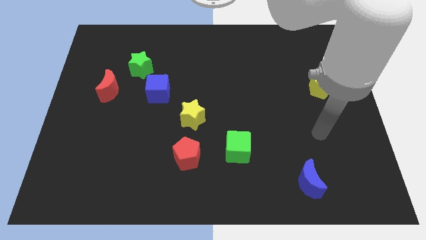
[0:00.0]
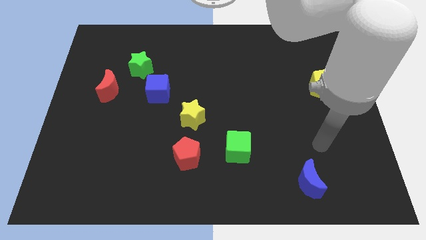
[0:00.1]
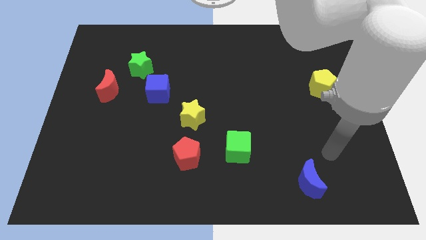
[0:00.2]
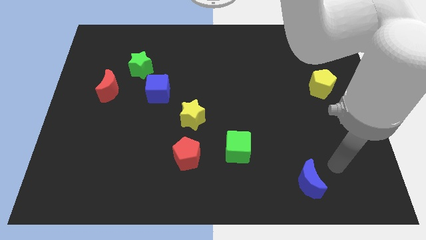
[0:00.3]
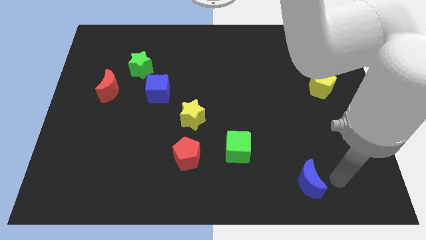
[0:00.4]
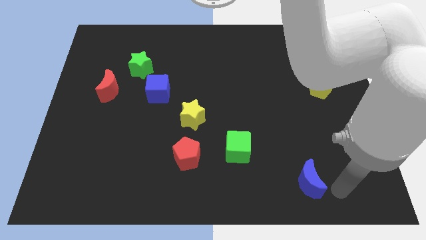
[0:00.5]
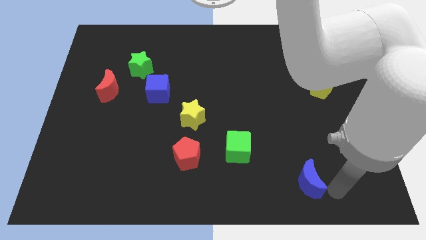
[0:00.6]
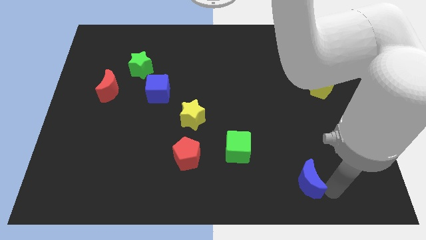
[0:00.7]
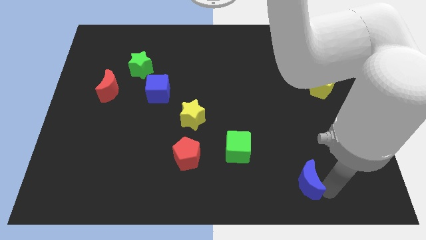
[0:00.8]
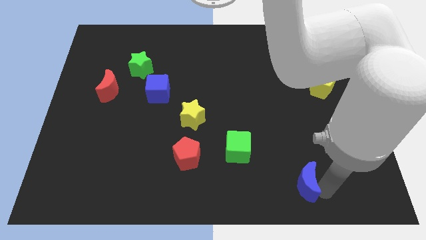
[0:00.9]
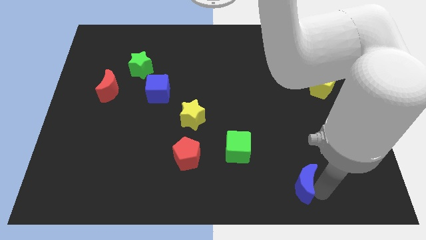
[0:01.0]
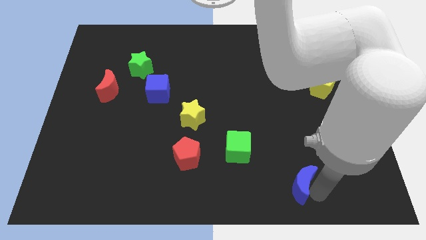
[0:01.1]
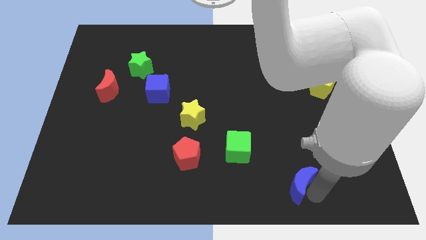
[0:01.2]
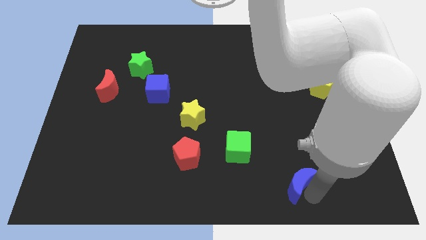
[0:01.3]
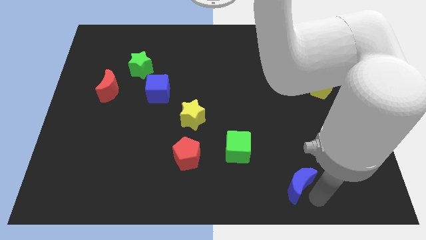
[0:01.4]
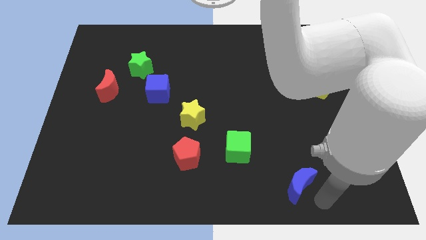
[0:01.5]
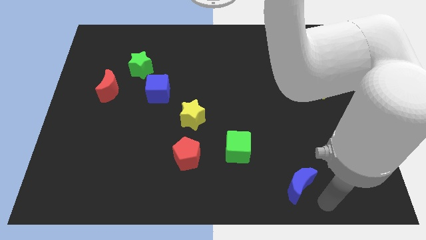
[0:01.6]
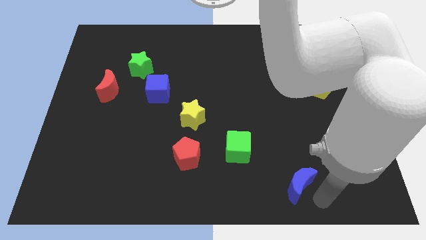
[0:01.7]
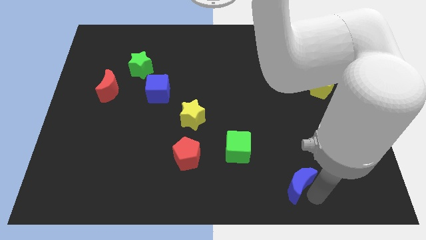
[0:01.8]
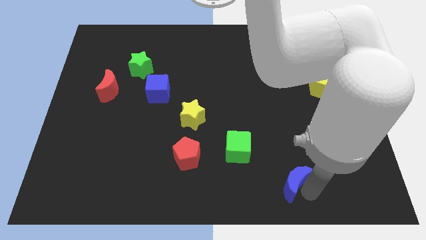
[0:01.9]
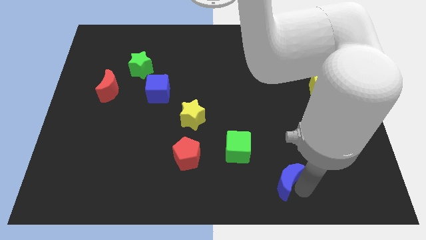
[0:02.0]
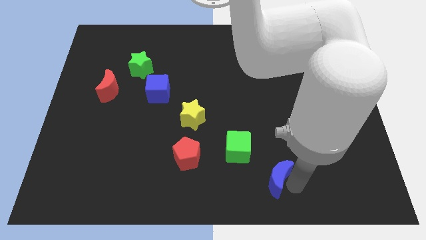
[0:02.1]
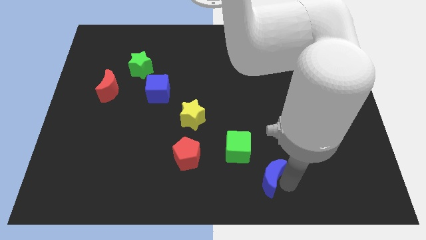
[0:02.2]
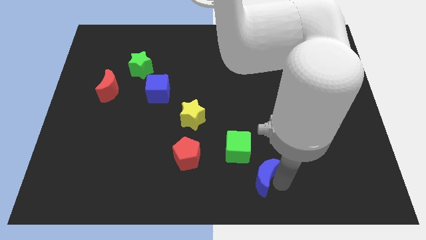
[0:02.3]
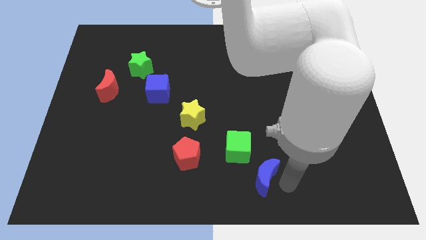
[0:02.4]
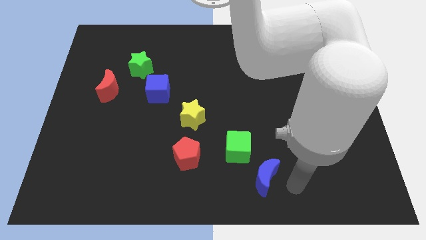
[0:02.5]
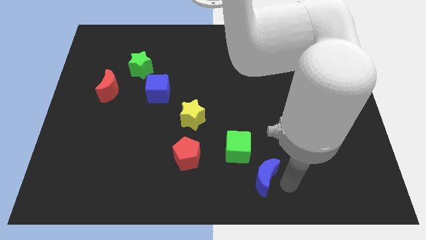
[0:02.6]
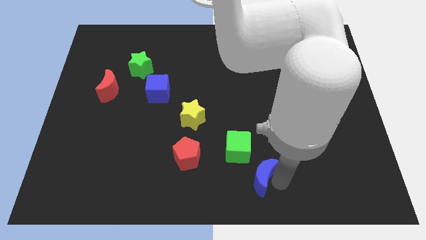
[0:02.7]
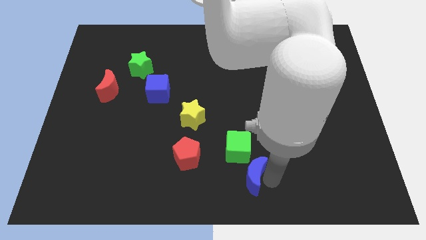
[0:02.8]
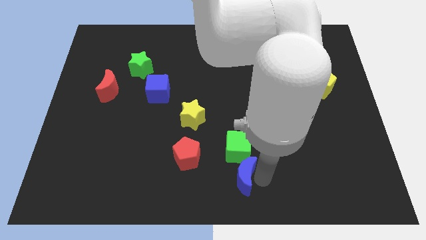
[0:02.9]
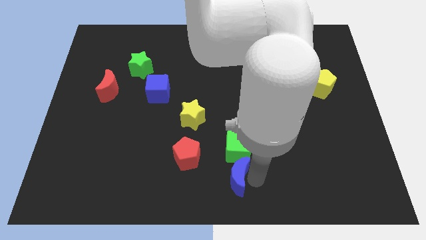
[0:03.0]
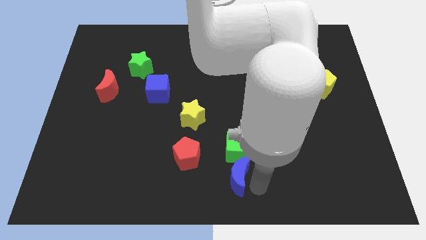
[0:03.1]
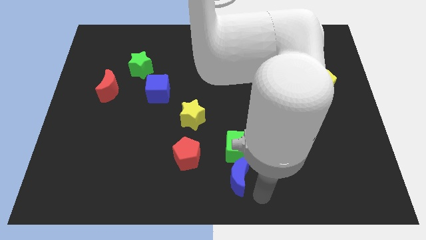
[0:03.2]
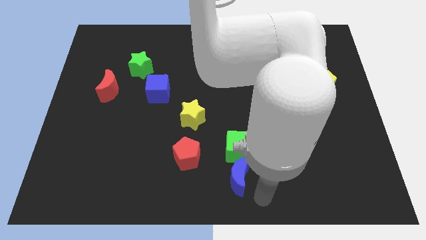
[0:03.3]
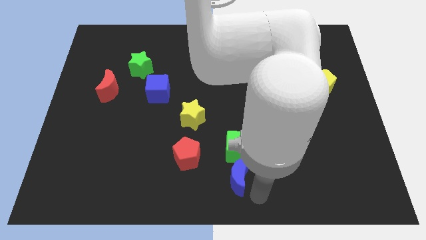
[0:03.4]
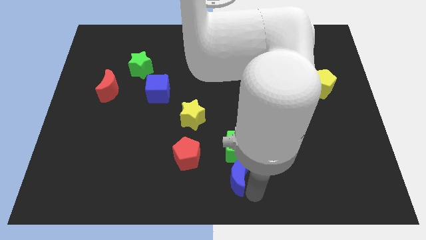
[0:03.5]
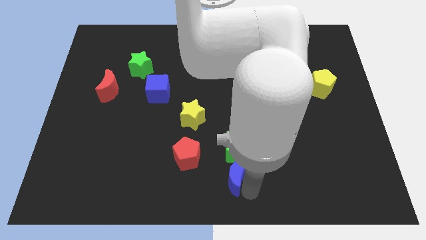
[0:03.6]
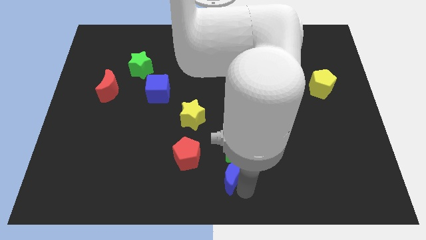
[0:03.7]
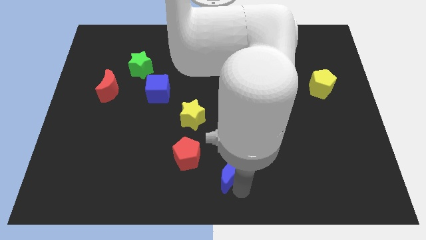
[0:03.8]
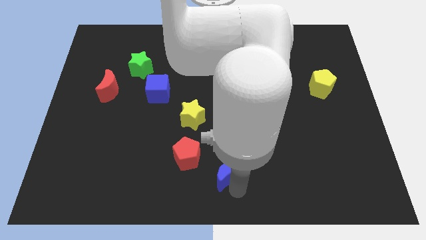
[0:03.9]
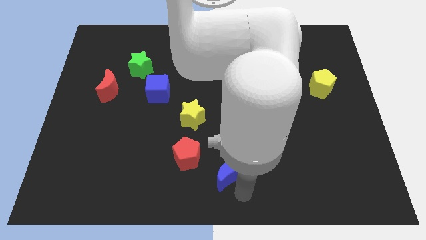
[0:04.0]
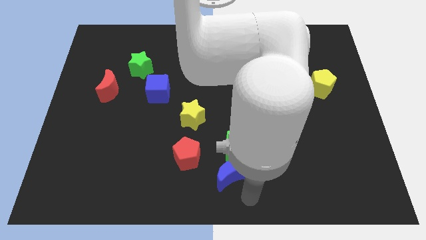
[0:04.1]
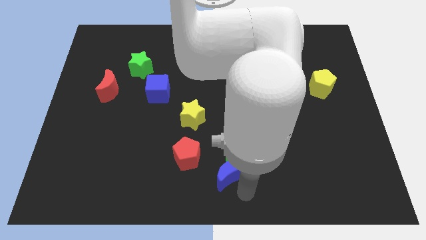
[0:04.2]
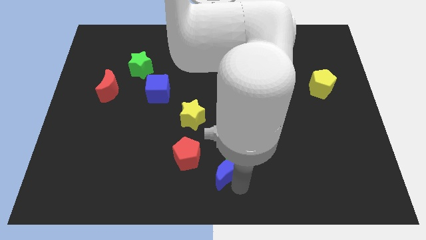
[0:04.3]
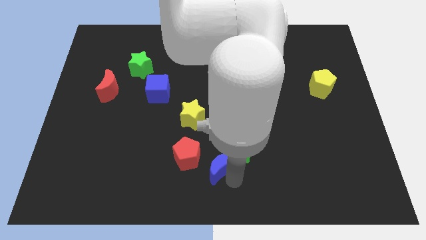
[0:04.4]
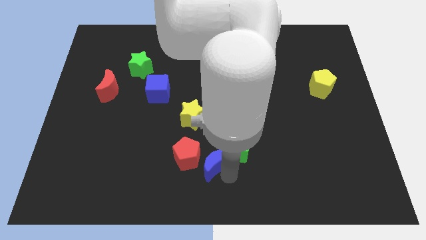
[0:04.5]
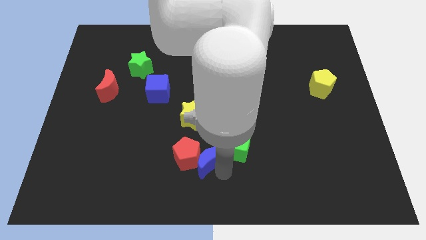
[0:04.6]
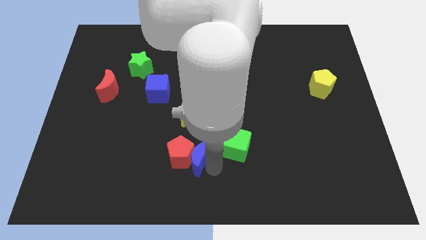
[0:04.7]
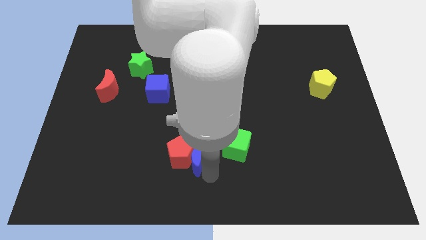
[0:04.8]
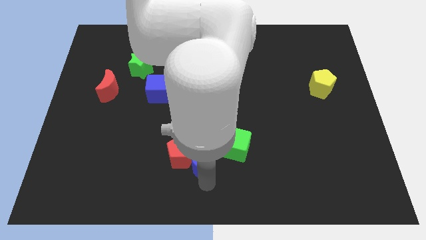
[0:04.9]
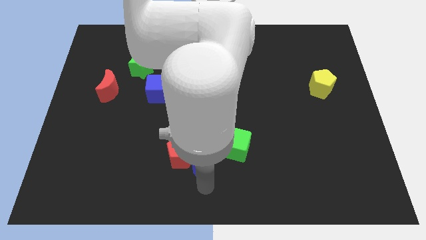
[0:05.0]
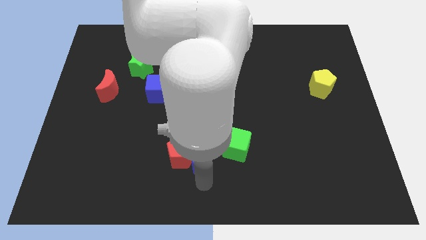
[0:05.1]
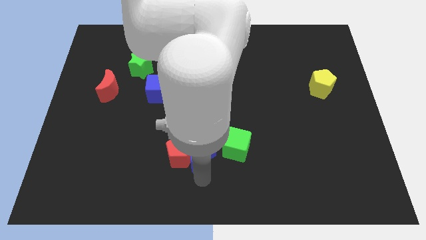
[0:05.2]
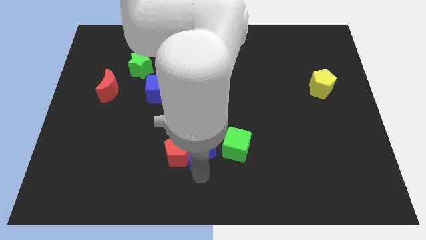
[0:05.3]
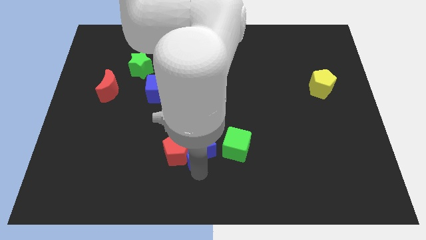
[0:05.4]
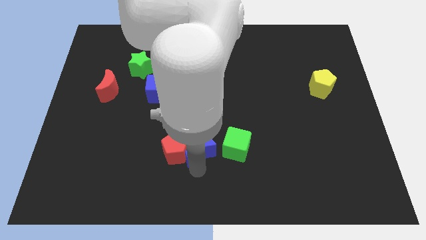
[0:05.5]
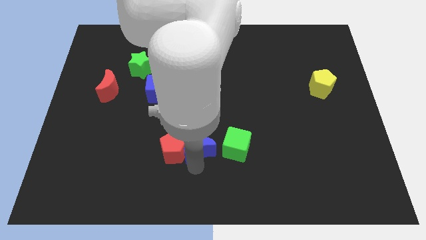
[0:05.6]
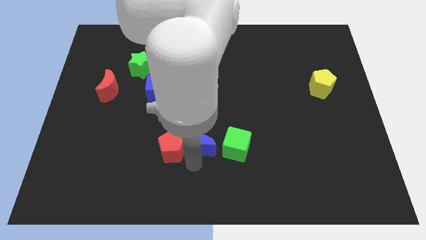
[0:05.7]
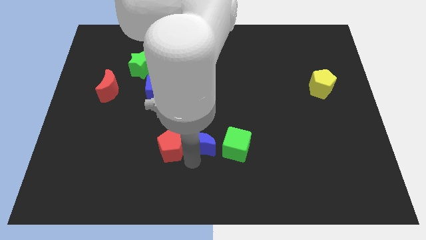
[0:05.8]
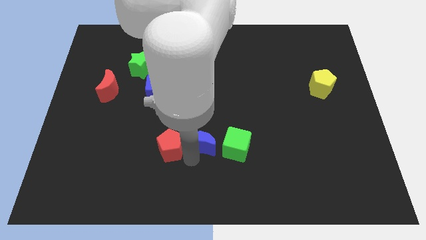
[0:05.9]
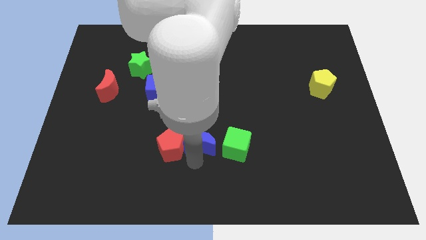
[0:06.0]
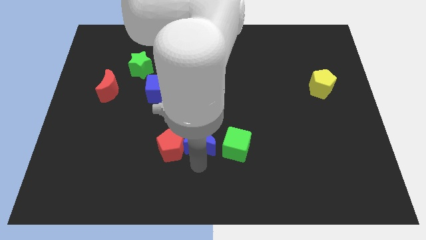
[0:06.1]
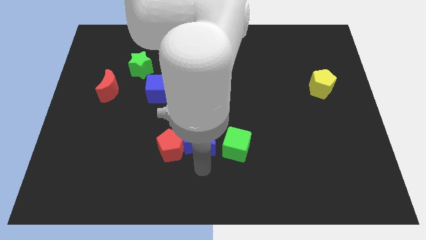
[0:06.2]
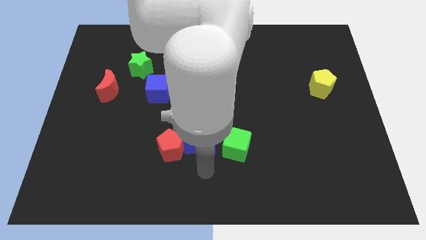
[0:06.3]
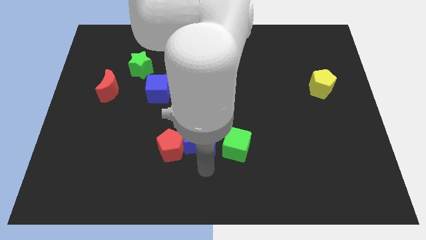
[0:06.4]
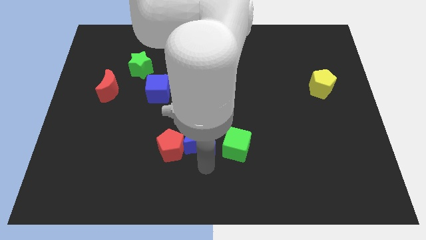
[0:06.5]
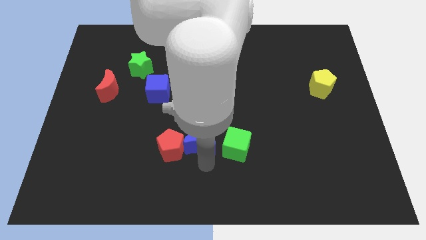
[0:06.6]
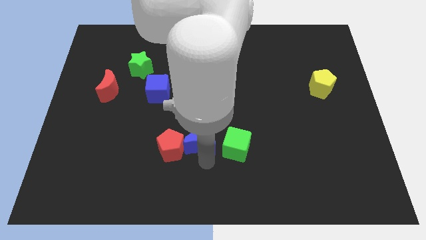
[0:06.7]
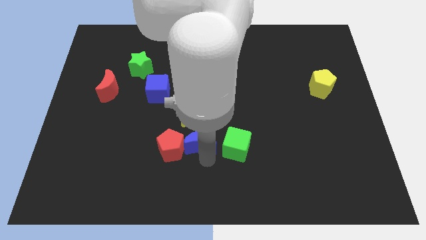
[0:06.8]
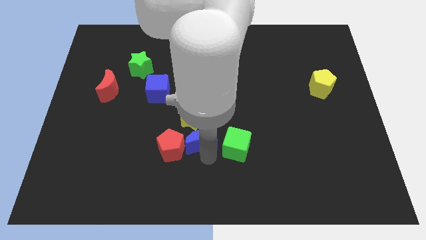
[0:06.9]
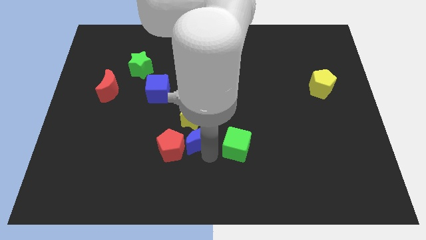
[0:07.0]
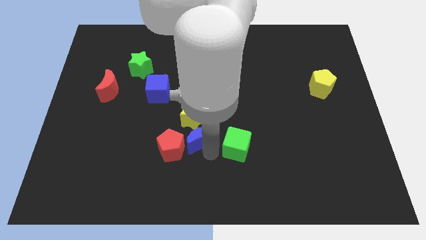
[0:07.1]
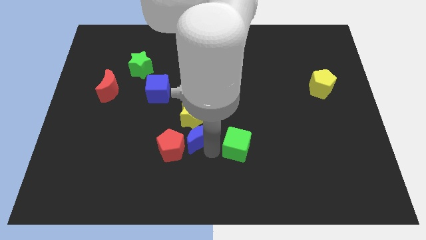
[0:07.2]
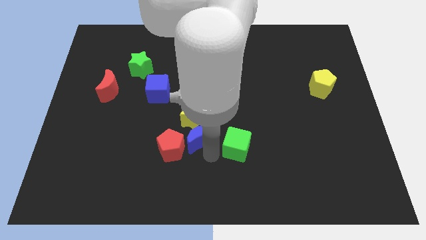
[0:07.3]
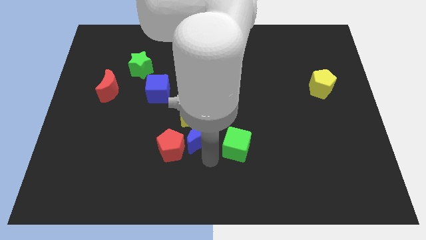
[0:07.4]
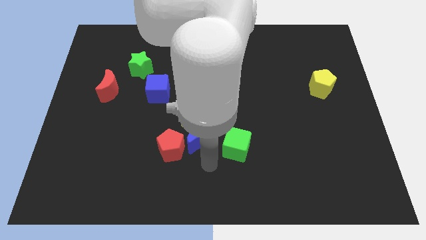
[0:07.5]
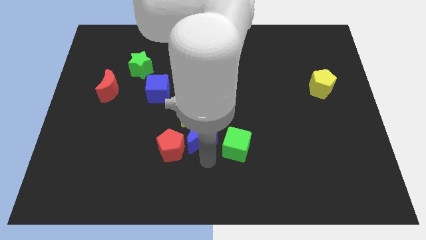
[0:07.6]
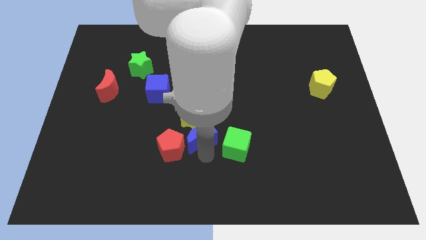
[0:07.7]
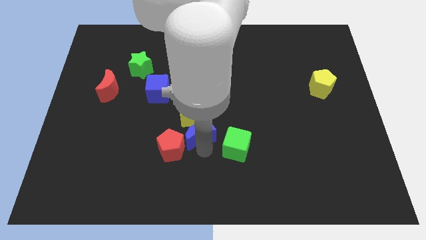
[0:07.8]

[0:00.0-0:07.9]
put the blue moon next to the yellow star
